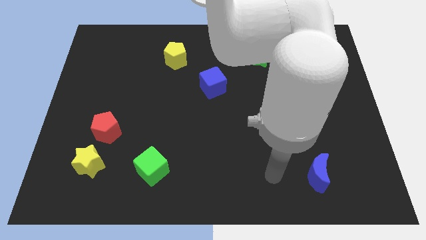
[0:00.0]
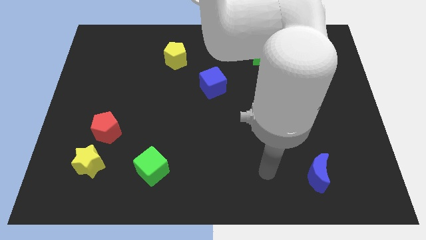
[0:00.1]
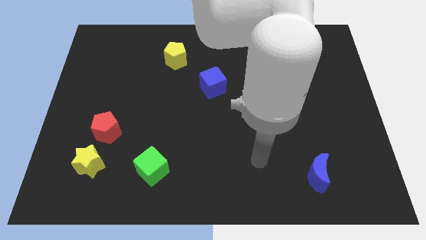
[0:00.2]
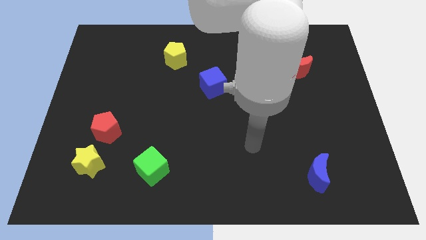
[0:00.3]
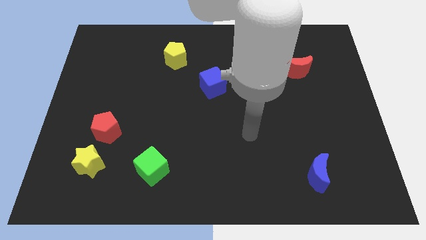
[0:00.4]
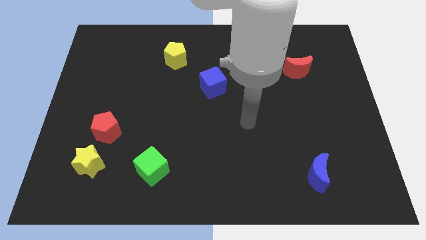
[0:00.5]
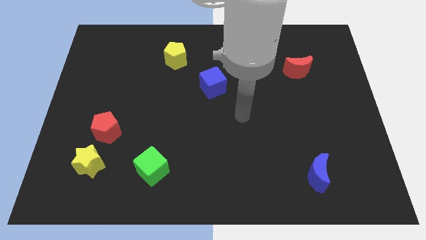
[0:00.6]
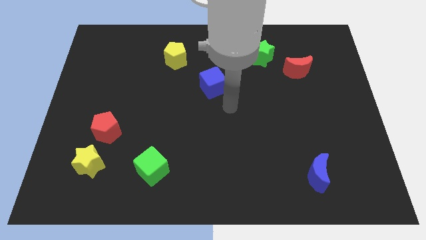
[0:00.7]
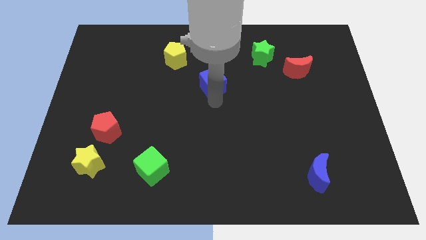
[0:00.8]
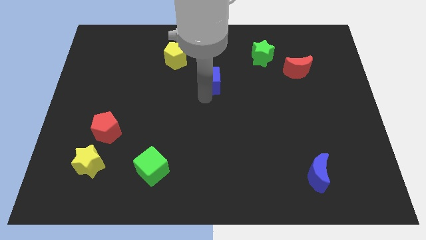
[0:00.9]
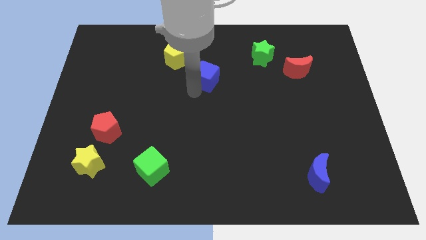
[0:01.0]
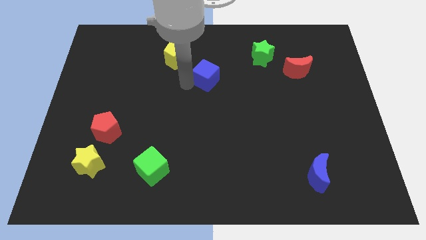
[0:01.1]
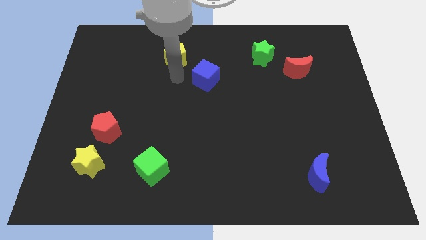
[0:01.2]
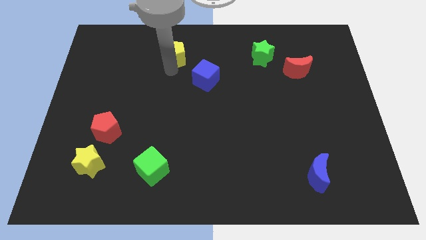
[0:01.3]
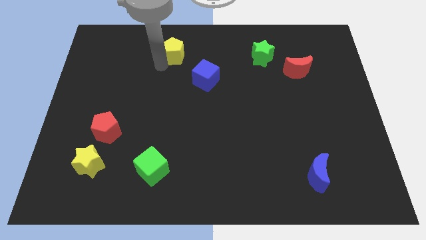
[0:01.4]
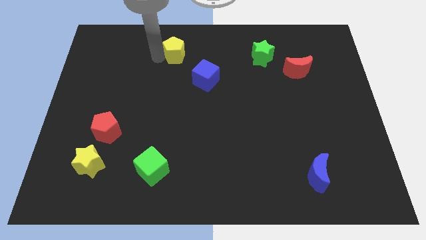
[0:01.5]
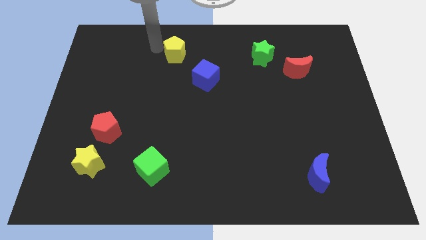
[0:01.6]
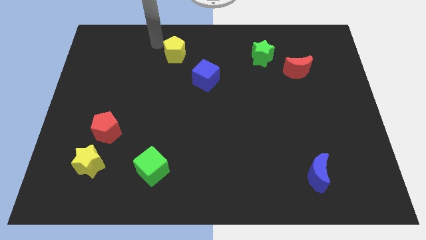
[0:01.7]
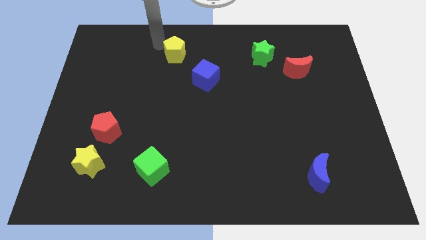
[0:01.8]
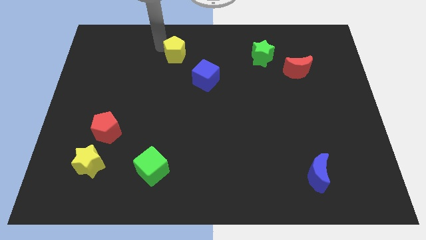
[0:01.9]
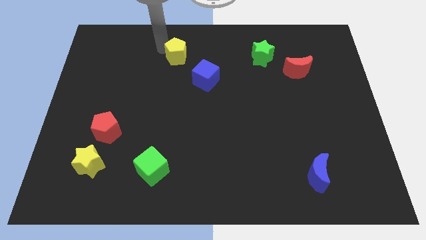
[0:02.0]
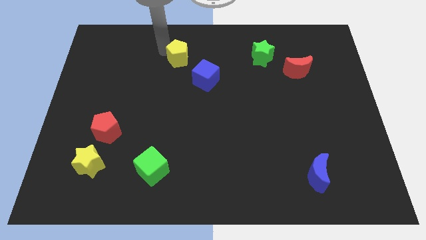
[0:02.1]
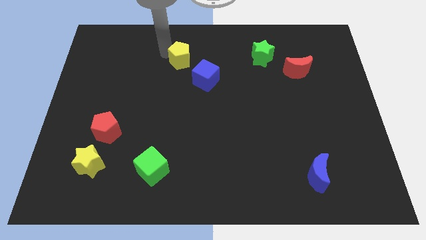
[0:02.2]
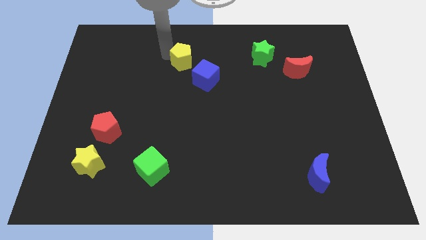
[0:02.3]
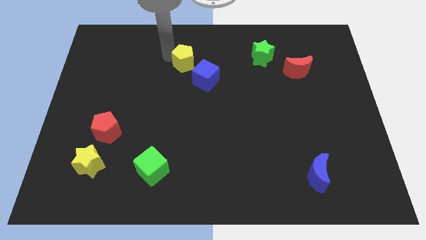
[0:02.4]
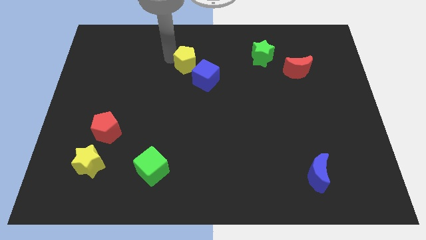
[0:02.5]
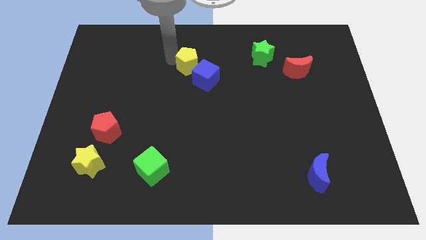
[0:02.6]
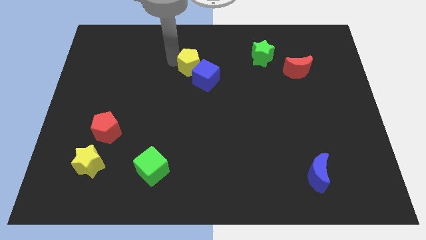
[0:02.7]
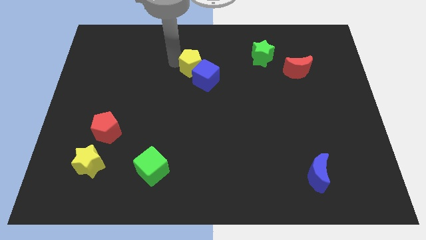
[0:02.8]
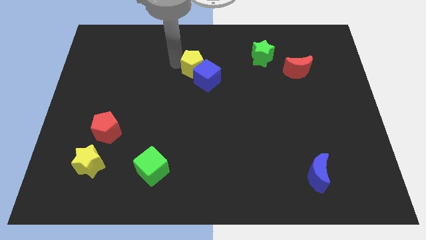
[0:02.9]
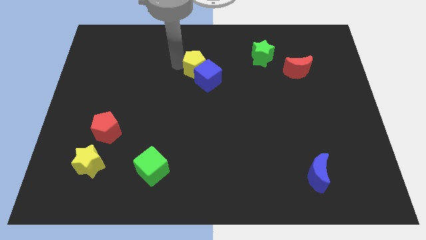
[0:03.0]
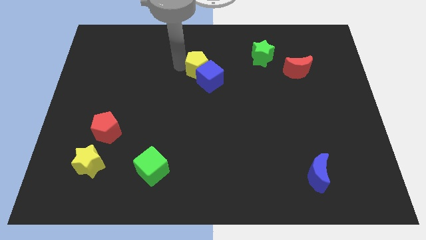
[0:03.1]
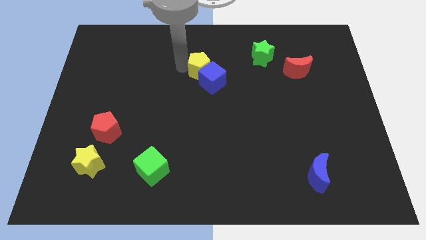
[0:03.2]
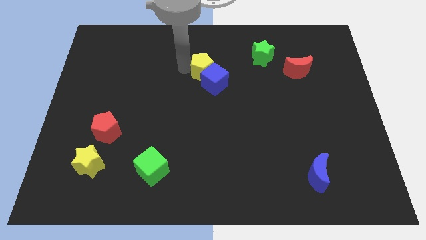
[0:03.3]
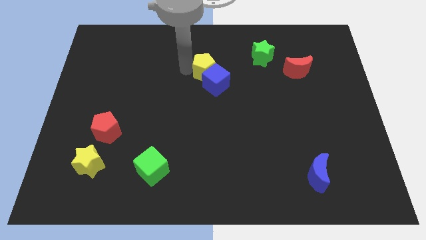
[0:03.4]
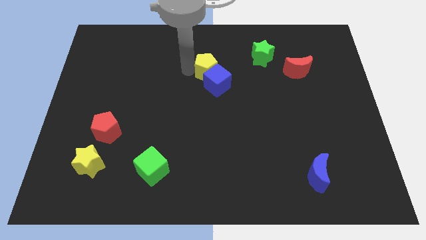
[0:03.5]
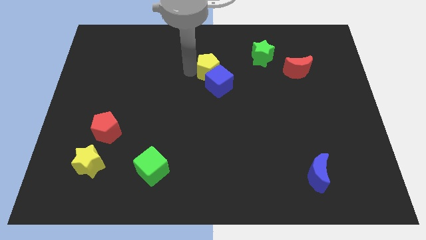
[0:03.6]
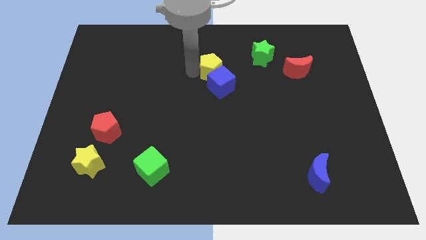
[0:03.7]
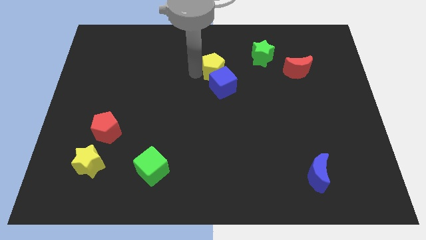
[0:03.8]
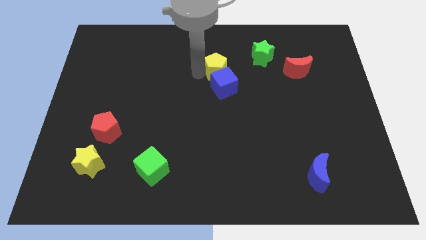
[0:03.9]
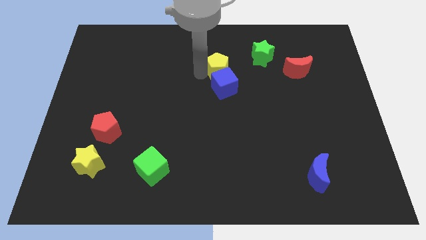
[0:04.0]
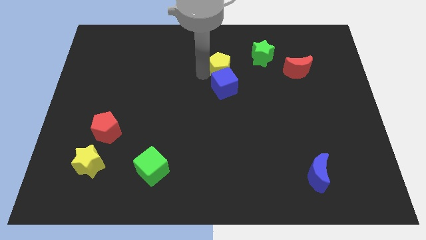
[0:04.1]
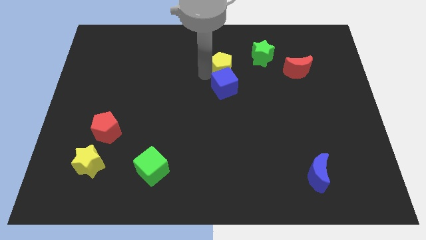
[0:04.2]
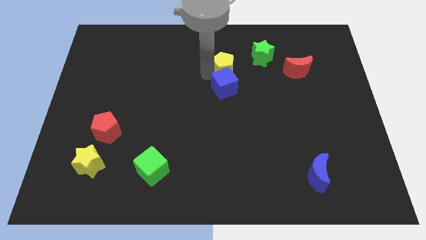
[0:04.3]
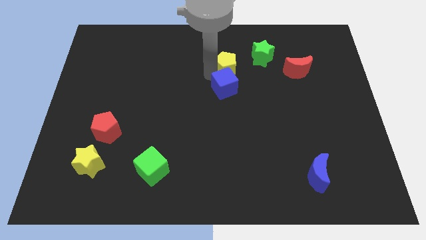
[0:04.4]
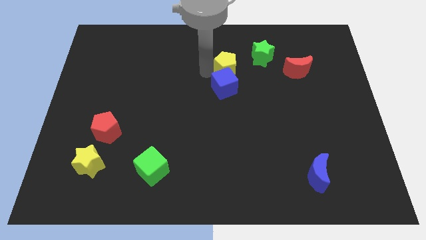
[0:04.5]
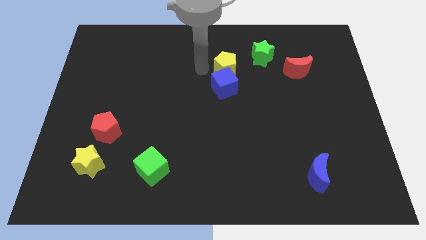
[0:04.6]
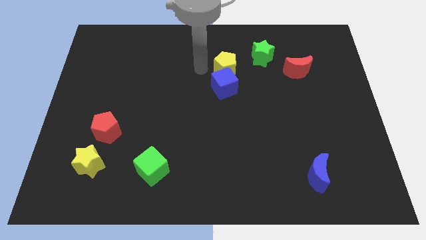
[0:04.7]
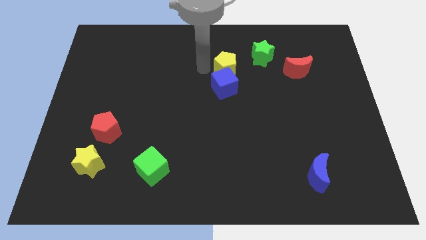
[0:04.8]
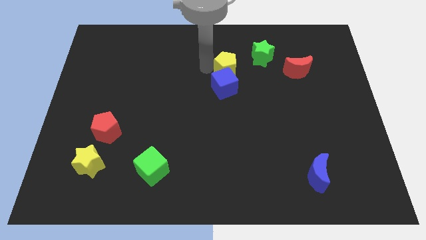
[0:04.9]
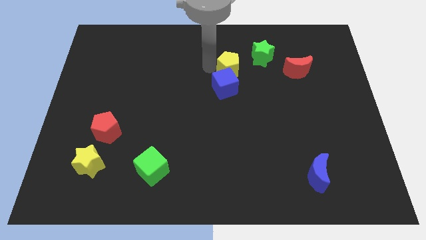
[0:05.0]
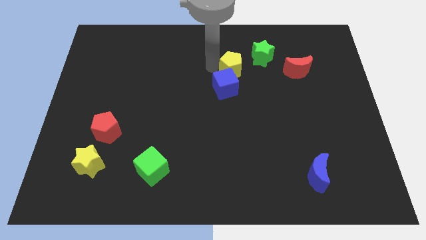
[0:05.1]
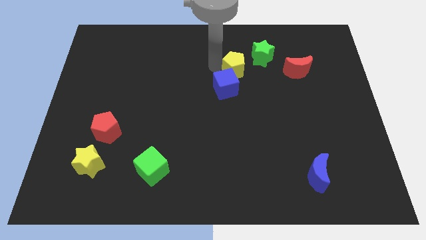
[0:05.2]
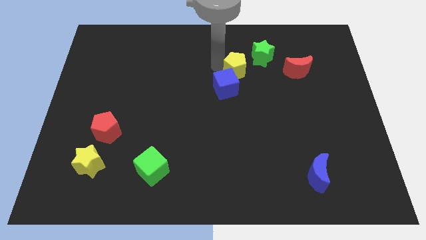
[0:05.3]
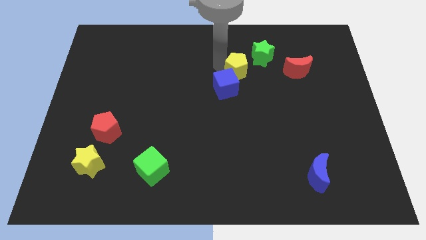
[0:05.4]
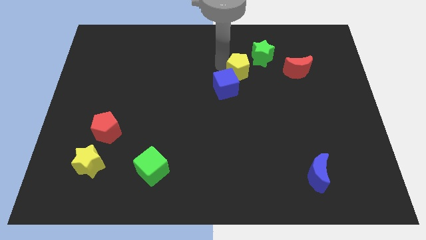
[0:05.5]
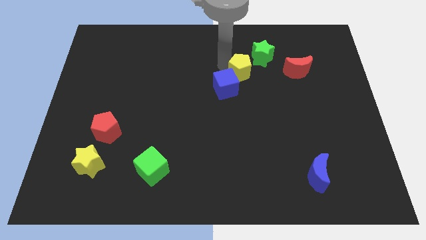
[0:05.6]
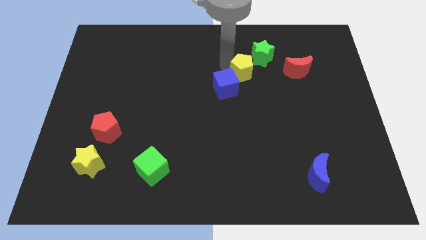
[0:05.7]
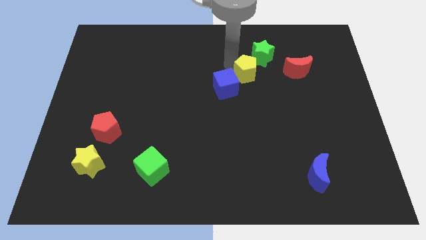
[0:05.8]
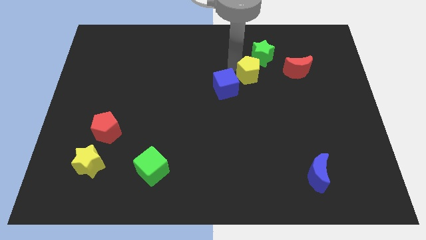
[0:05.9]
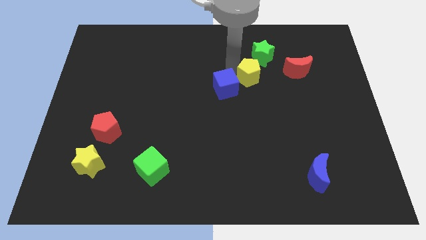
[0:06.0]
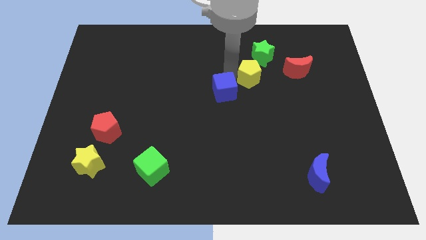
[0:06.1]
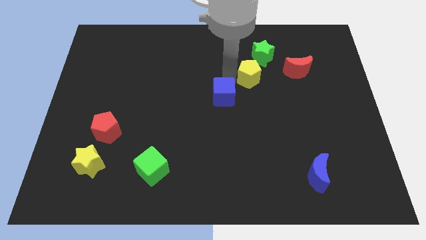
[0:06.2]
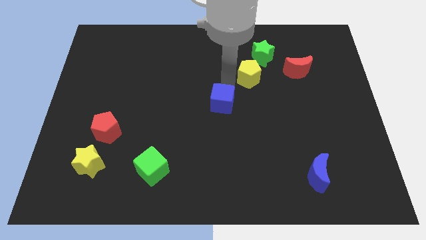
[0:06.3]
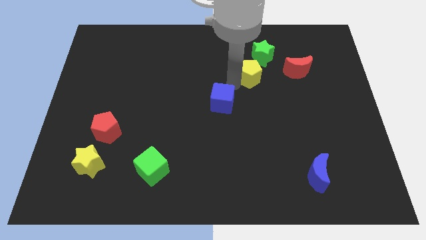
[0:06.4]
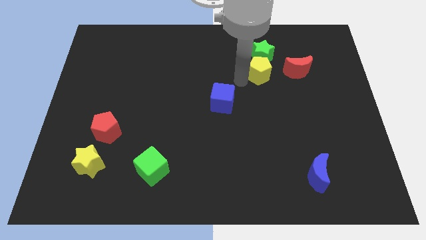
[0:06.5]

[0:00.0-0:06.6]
push the yellow pentagon to the right

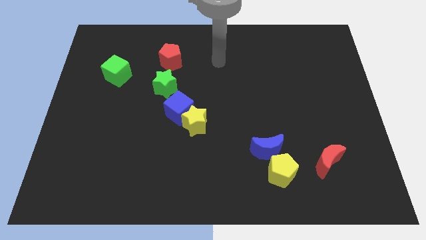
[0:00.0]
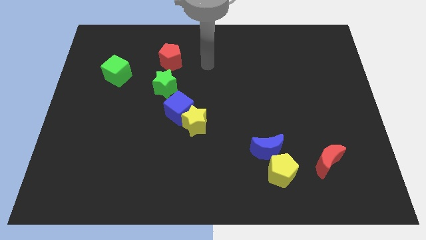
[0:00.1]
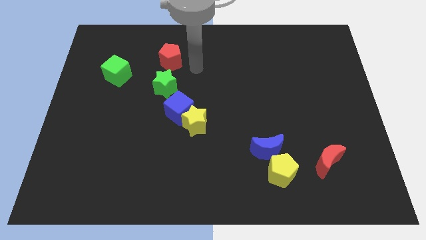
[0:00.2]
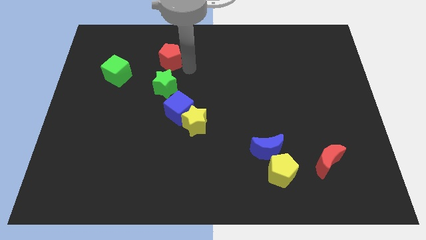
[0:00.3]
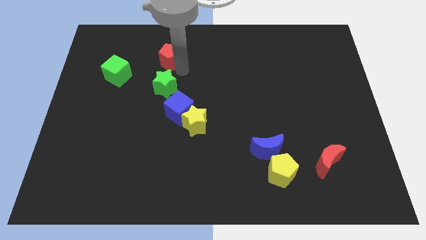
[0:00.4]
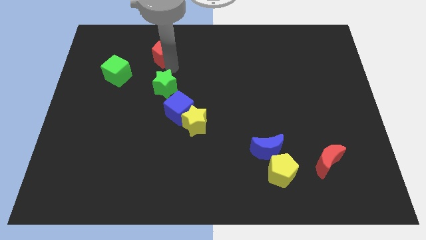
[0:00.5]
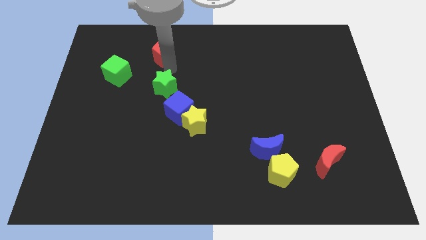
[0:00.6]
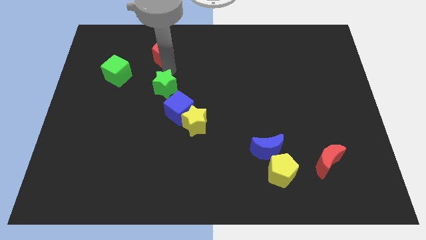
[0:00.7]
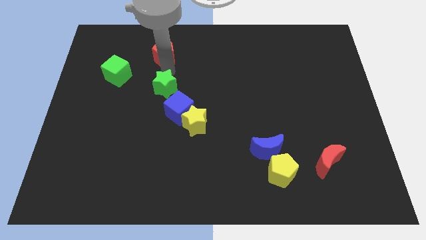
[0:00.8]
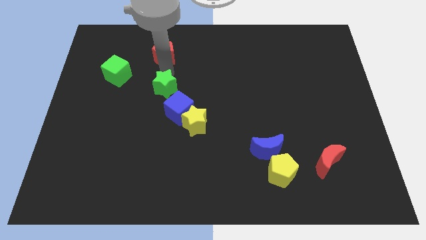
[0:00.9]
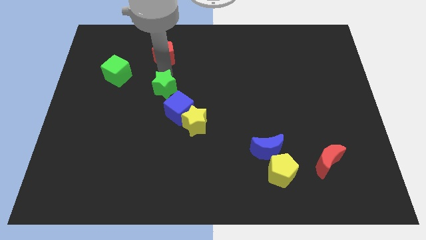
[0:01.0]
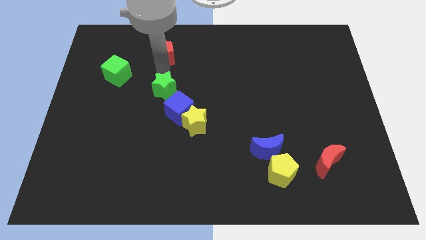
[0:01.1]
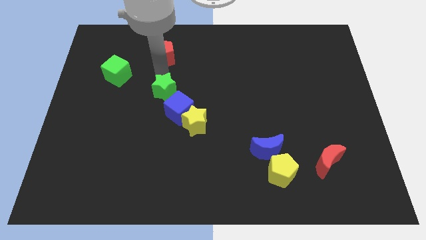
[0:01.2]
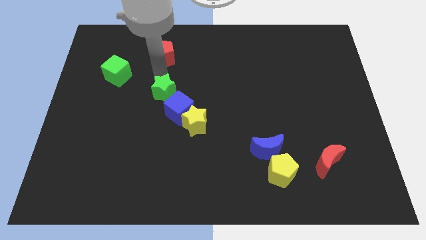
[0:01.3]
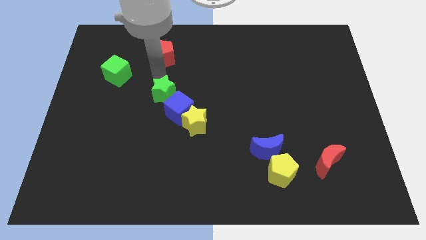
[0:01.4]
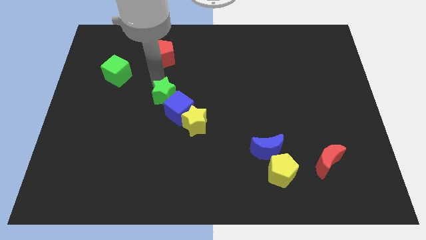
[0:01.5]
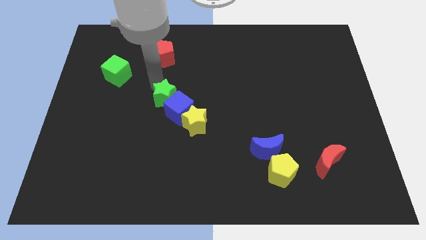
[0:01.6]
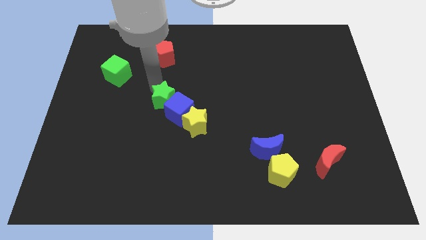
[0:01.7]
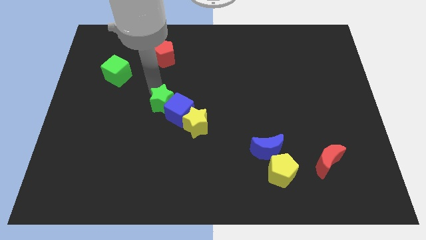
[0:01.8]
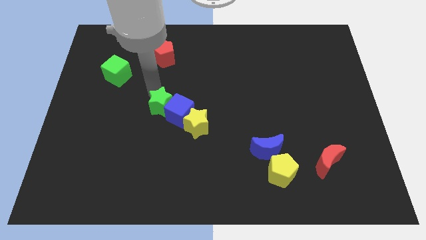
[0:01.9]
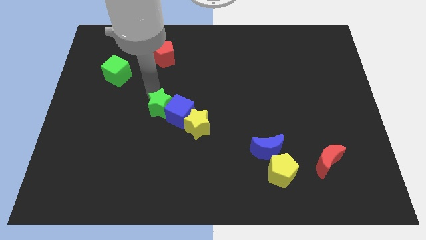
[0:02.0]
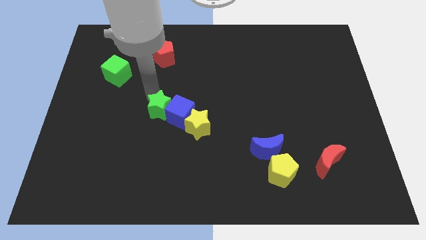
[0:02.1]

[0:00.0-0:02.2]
slightly slide the green star downwards
